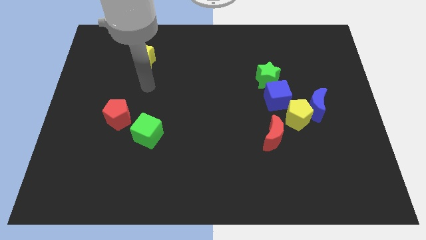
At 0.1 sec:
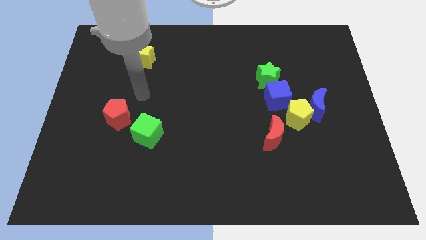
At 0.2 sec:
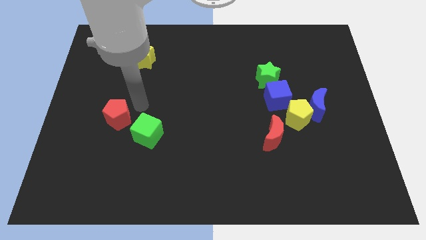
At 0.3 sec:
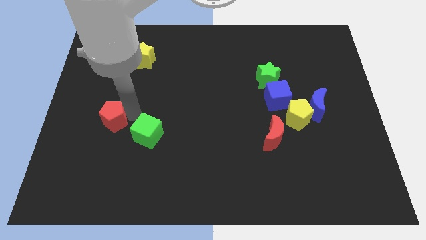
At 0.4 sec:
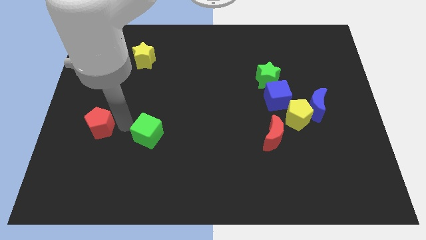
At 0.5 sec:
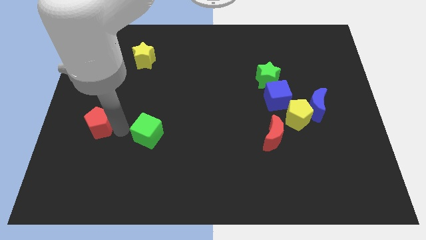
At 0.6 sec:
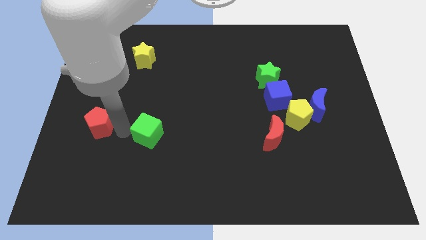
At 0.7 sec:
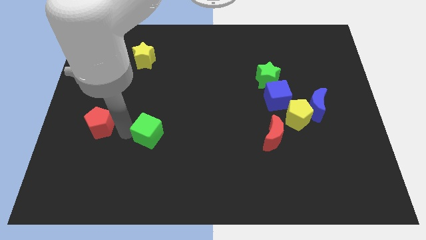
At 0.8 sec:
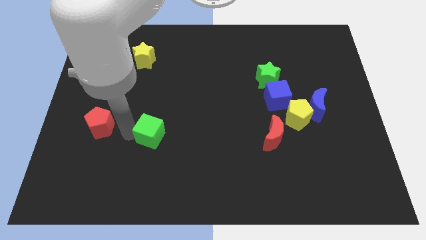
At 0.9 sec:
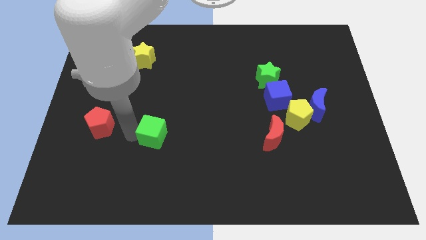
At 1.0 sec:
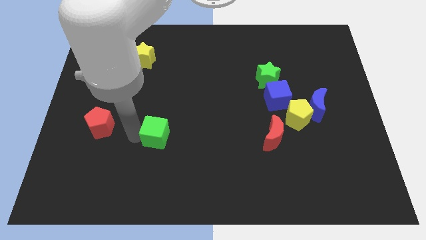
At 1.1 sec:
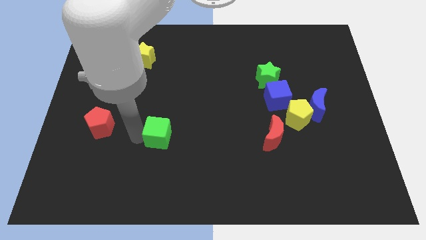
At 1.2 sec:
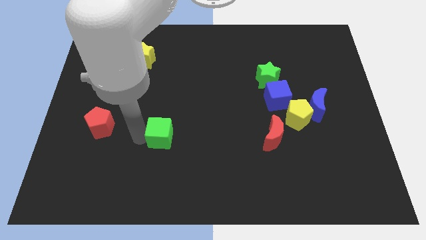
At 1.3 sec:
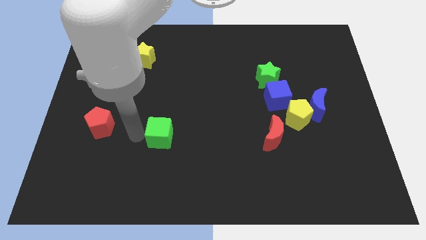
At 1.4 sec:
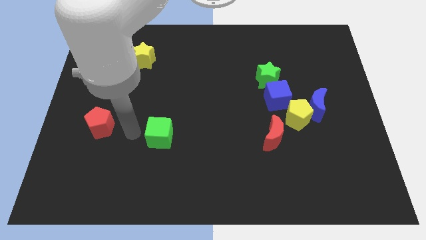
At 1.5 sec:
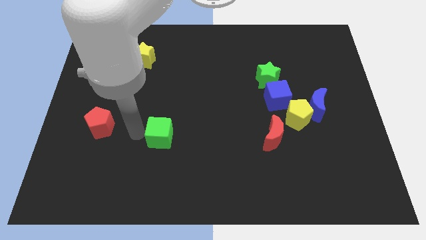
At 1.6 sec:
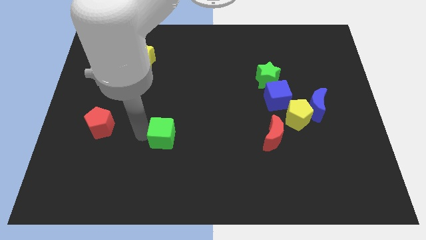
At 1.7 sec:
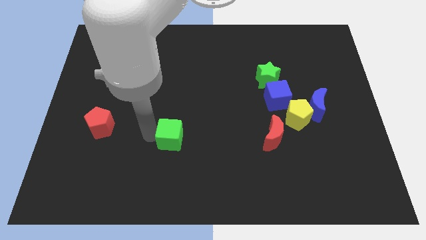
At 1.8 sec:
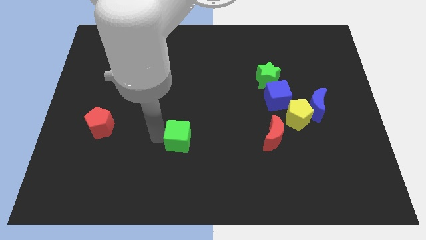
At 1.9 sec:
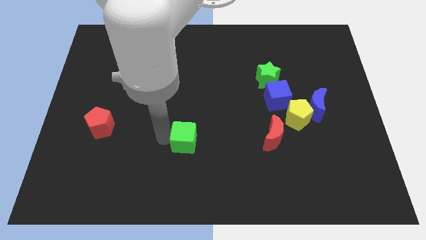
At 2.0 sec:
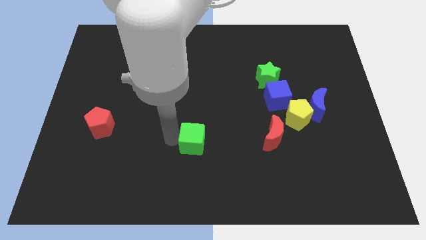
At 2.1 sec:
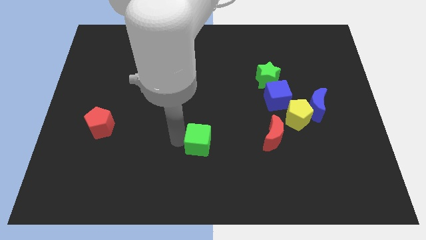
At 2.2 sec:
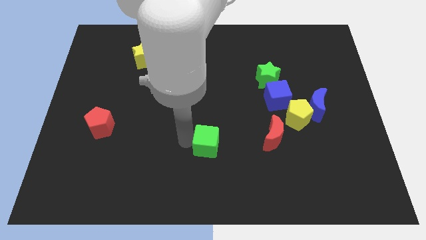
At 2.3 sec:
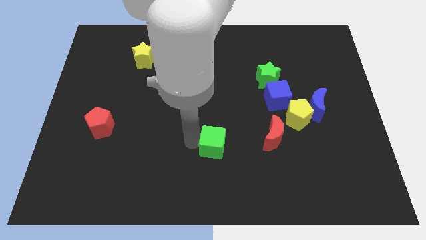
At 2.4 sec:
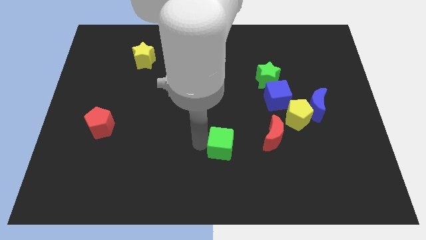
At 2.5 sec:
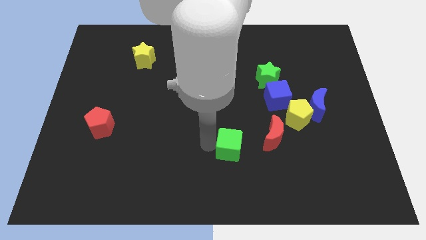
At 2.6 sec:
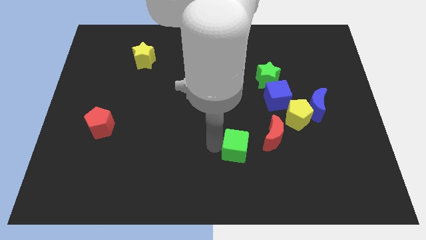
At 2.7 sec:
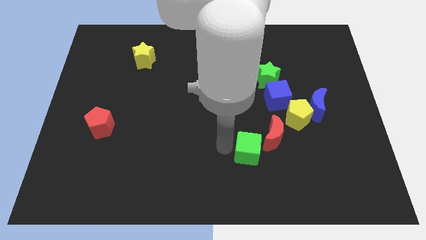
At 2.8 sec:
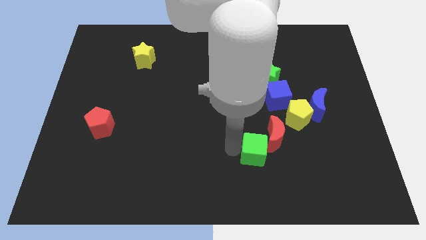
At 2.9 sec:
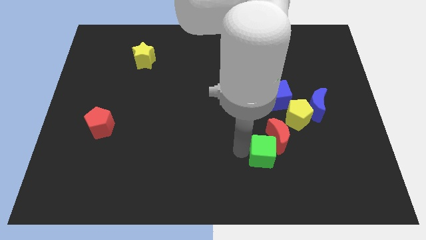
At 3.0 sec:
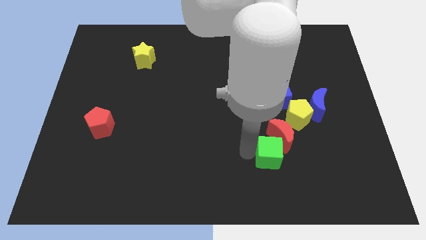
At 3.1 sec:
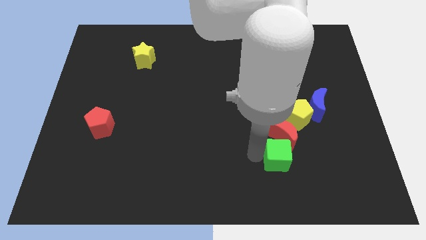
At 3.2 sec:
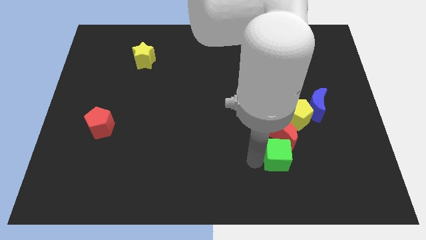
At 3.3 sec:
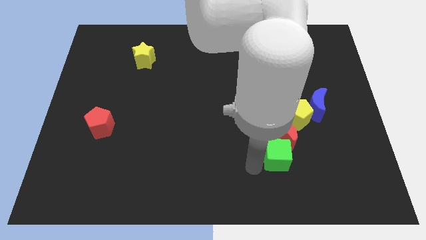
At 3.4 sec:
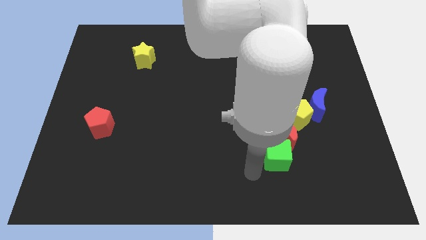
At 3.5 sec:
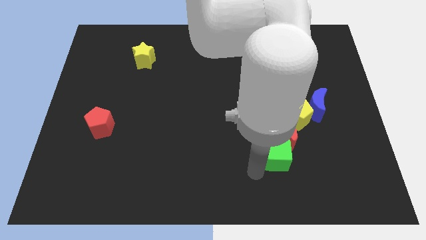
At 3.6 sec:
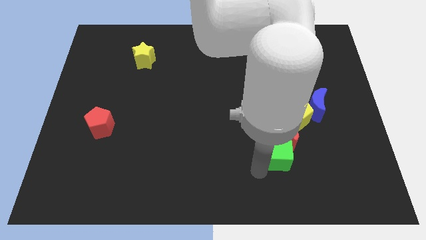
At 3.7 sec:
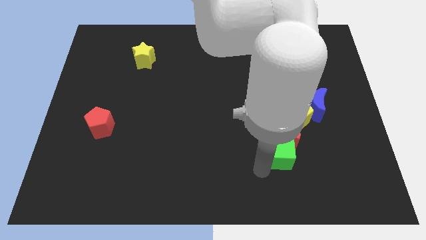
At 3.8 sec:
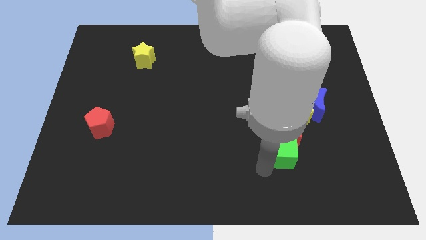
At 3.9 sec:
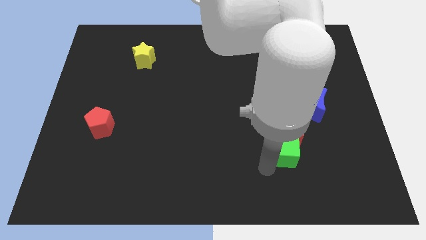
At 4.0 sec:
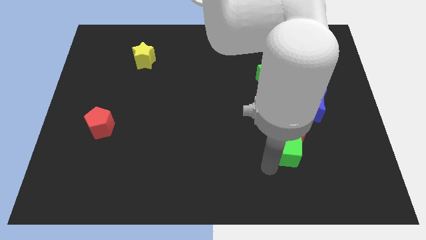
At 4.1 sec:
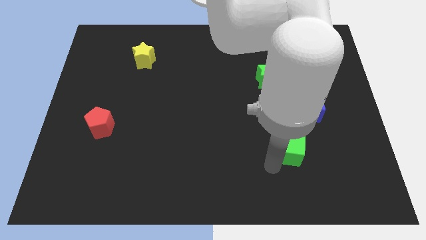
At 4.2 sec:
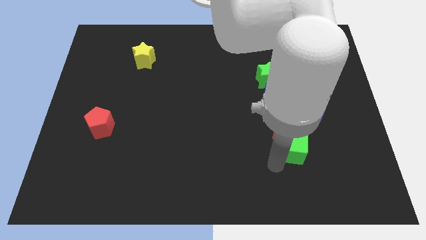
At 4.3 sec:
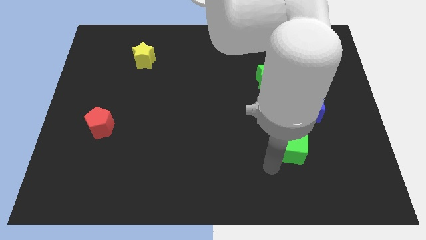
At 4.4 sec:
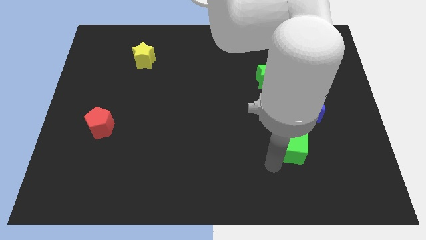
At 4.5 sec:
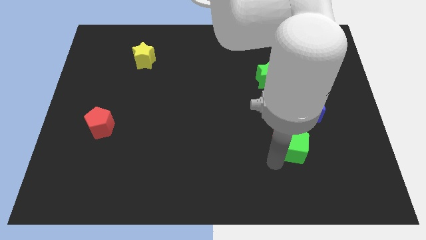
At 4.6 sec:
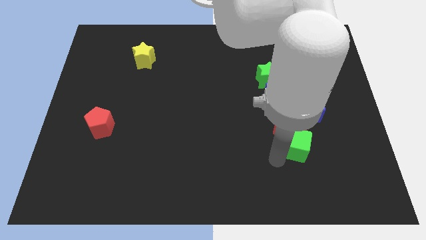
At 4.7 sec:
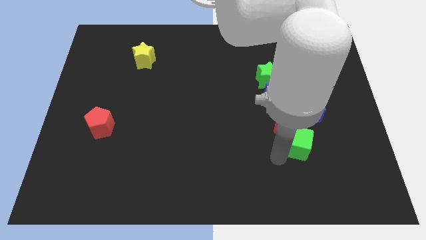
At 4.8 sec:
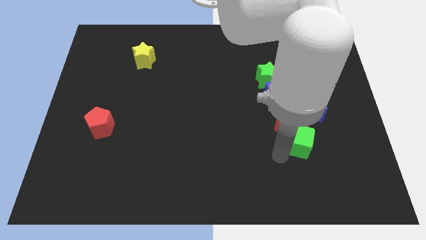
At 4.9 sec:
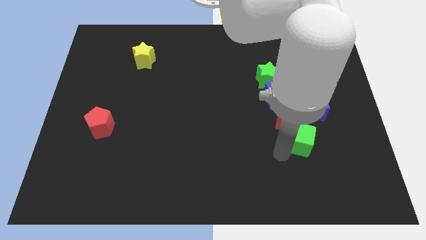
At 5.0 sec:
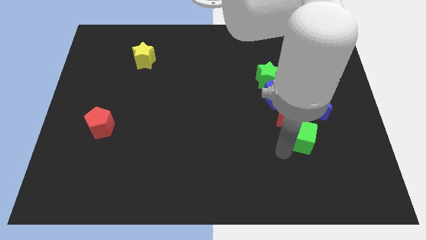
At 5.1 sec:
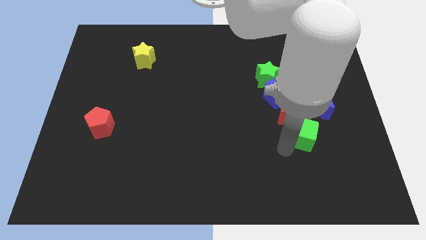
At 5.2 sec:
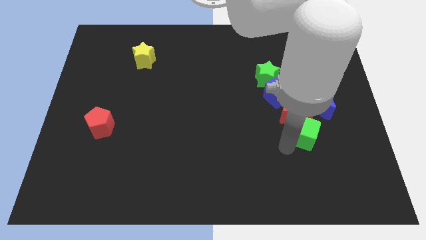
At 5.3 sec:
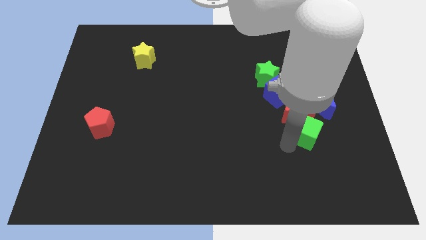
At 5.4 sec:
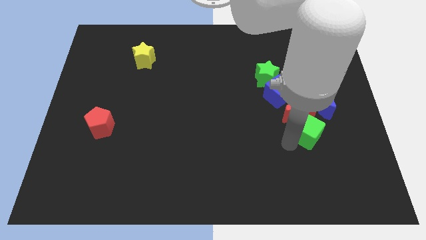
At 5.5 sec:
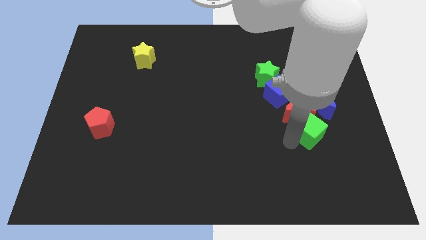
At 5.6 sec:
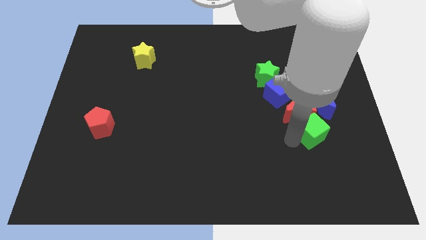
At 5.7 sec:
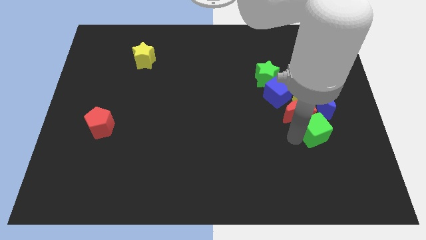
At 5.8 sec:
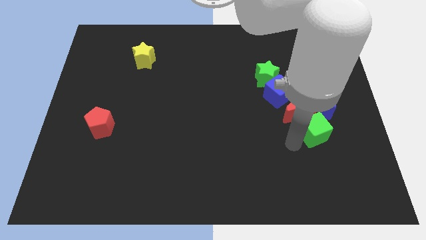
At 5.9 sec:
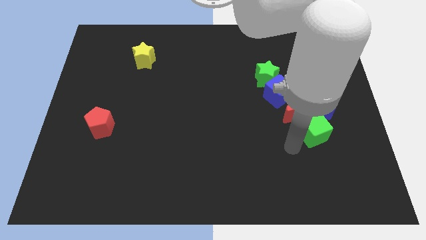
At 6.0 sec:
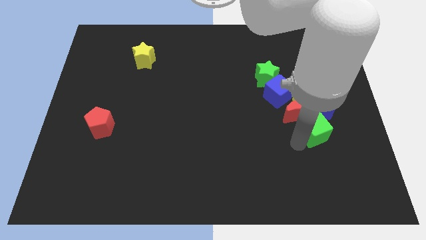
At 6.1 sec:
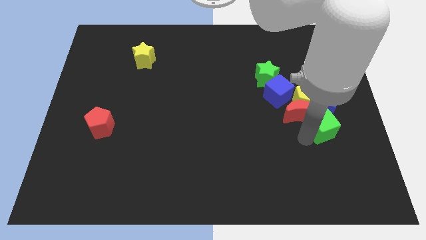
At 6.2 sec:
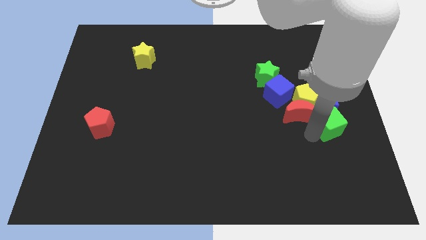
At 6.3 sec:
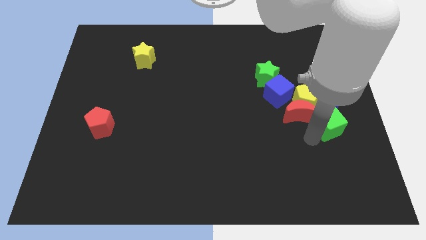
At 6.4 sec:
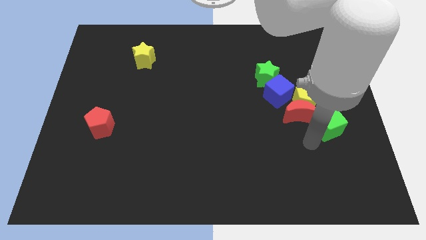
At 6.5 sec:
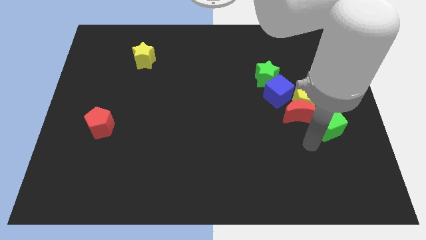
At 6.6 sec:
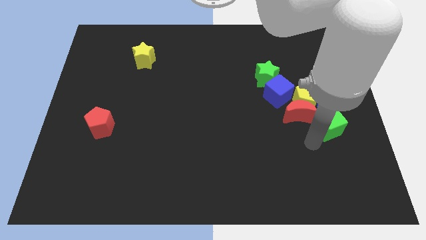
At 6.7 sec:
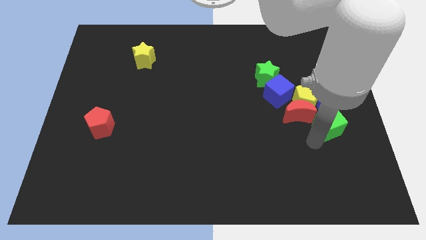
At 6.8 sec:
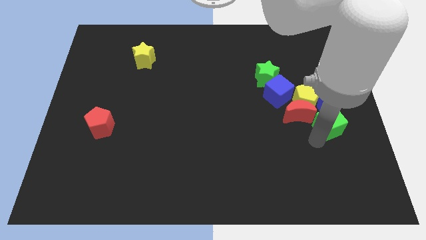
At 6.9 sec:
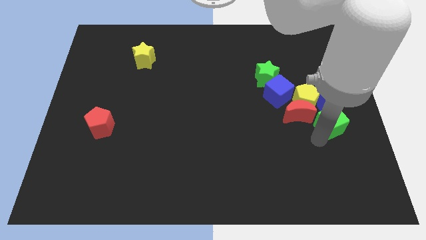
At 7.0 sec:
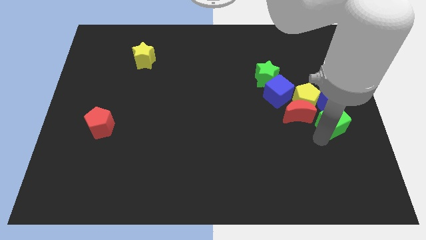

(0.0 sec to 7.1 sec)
slide the green cube to the right side of the board
